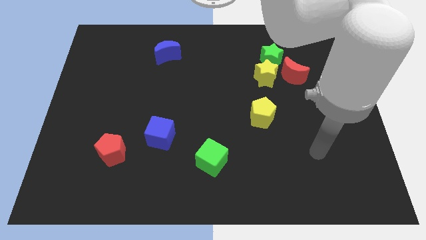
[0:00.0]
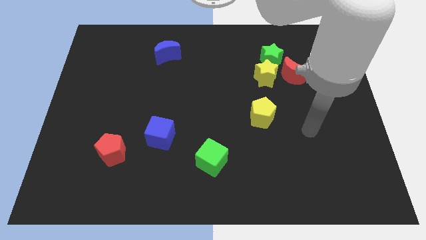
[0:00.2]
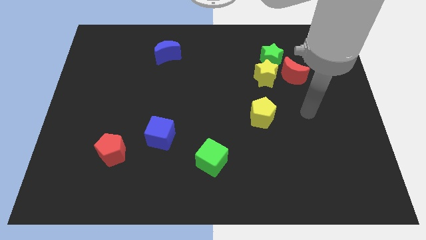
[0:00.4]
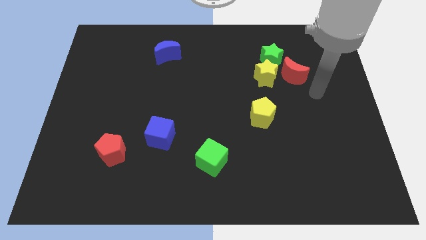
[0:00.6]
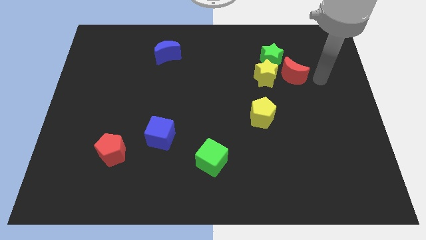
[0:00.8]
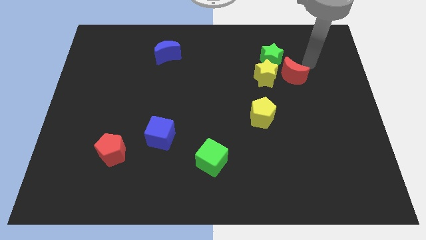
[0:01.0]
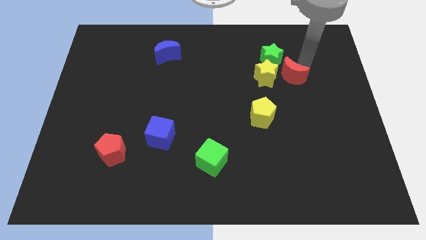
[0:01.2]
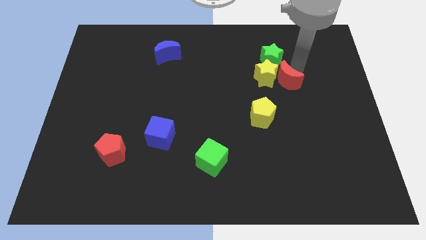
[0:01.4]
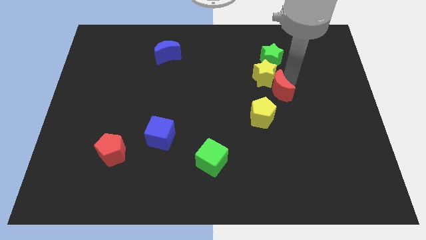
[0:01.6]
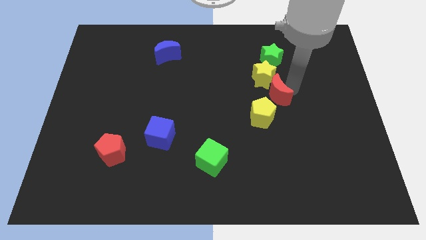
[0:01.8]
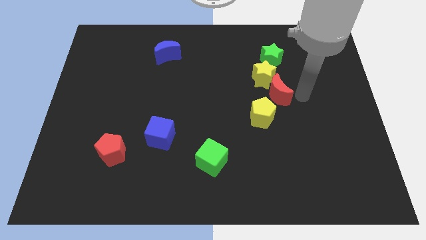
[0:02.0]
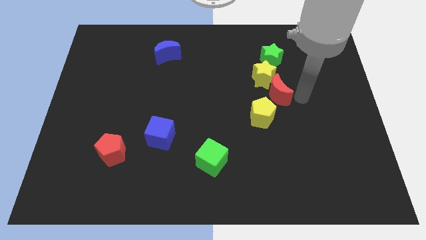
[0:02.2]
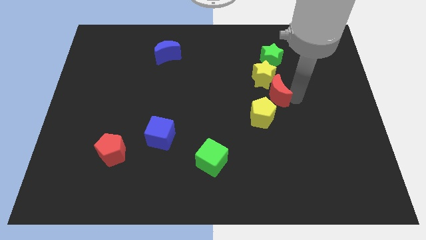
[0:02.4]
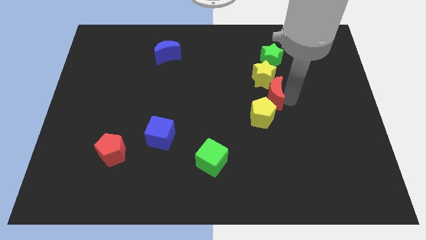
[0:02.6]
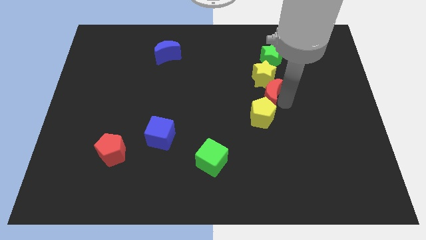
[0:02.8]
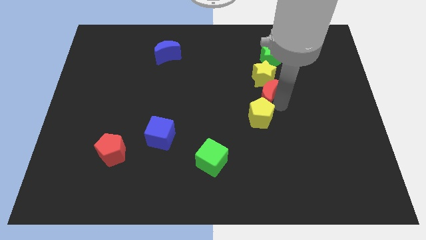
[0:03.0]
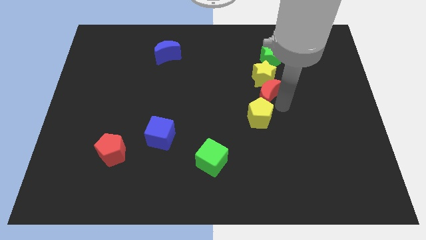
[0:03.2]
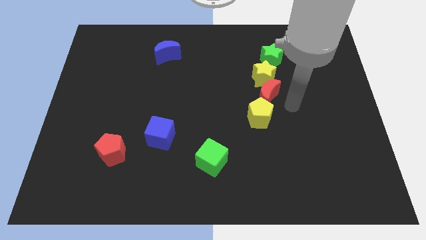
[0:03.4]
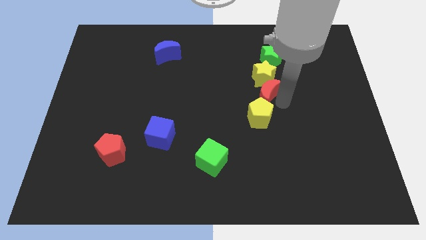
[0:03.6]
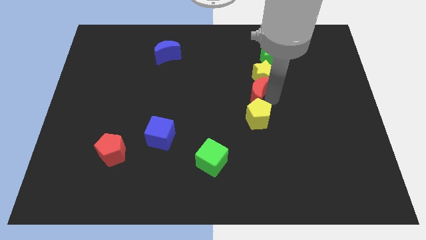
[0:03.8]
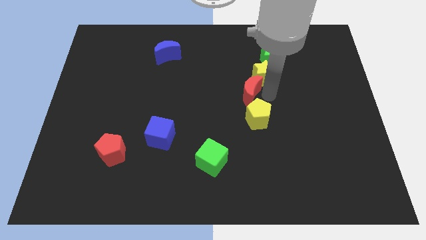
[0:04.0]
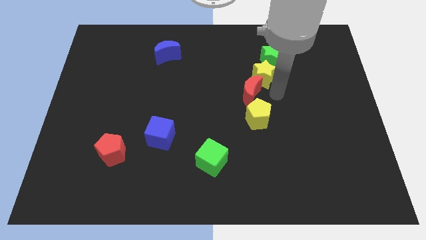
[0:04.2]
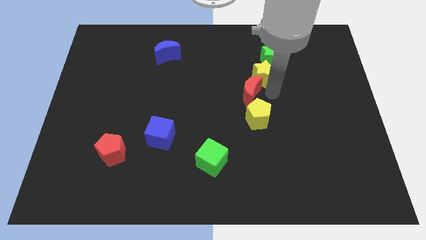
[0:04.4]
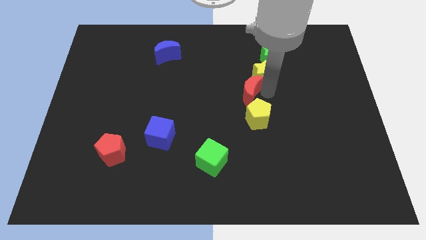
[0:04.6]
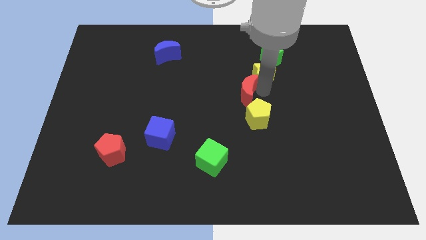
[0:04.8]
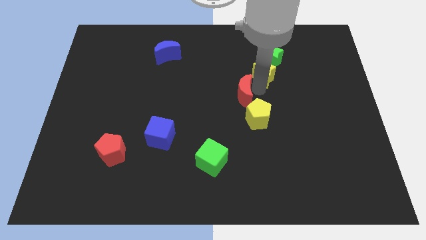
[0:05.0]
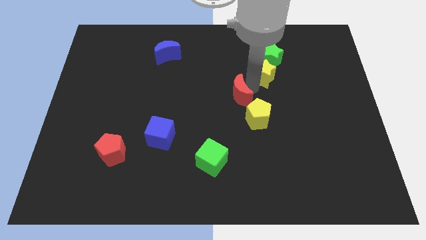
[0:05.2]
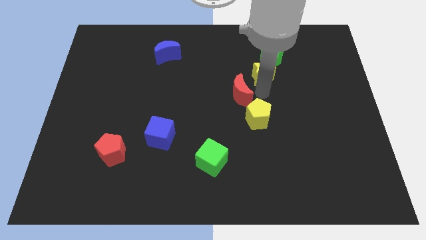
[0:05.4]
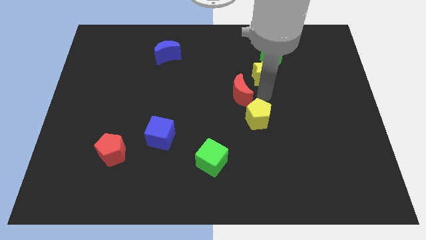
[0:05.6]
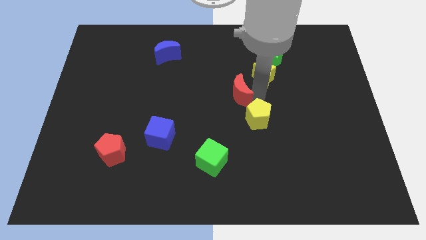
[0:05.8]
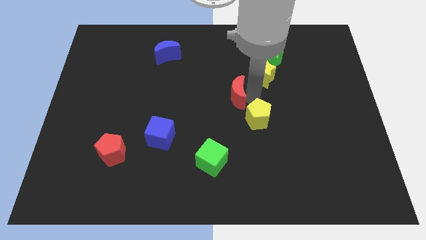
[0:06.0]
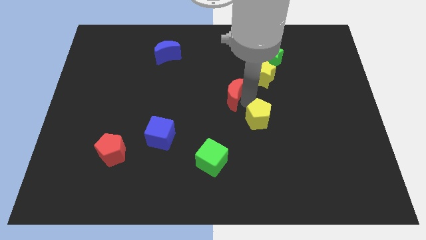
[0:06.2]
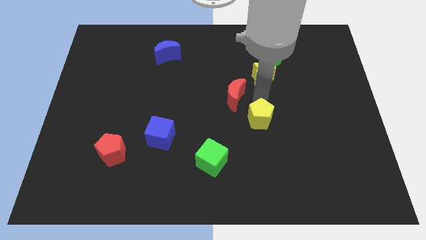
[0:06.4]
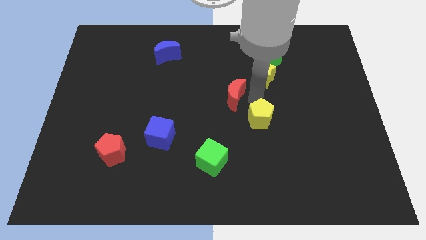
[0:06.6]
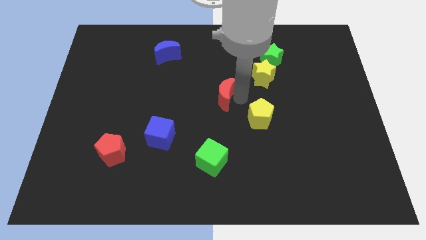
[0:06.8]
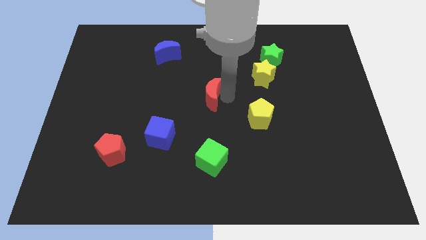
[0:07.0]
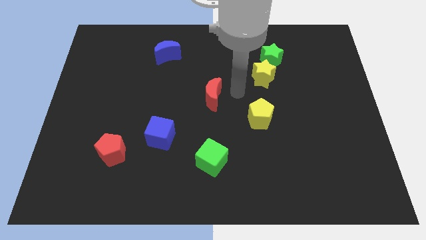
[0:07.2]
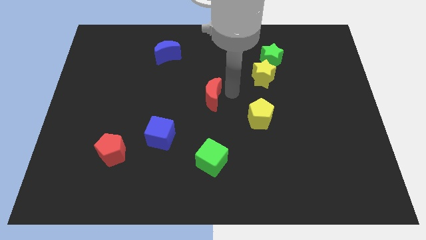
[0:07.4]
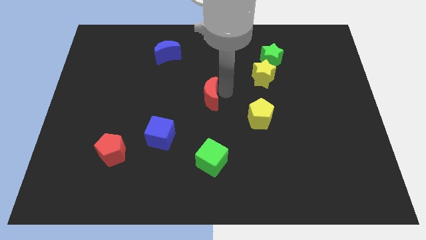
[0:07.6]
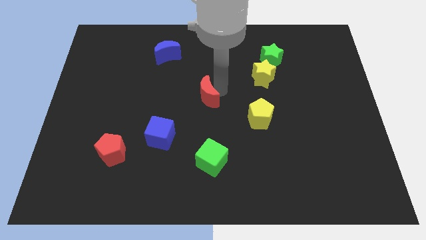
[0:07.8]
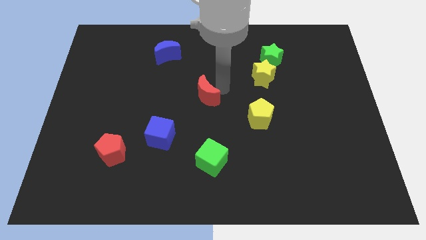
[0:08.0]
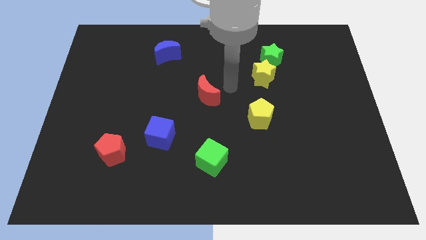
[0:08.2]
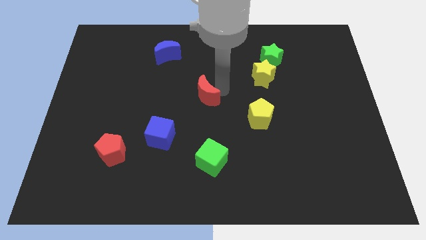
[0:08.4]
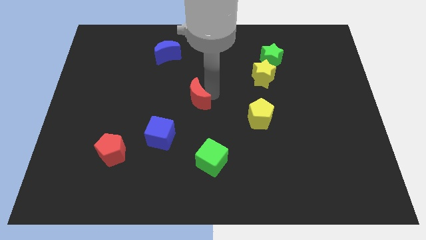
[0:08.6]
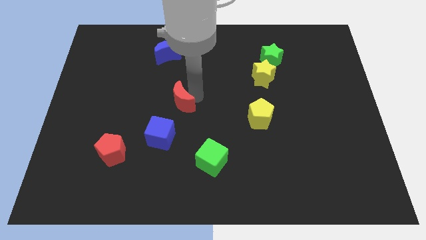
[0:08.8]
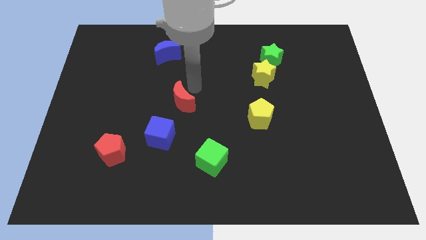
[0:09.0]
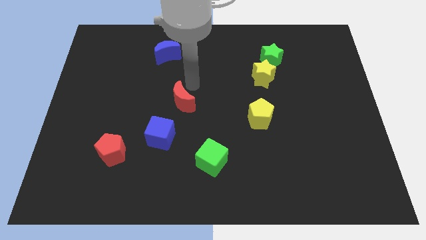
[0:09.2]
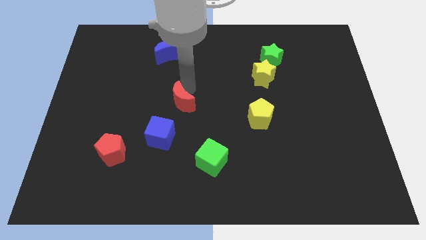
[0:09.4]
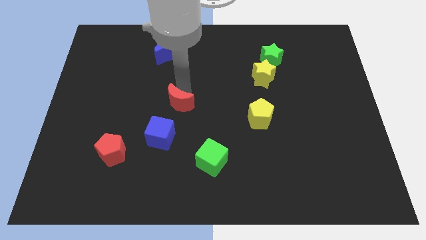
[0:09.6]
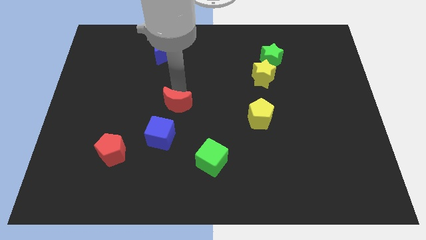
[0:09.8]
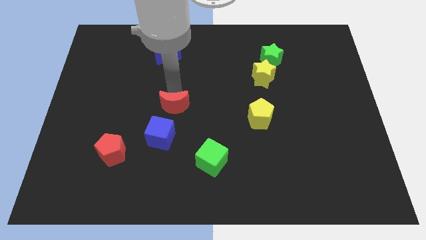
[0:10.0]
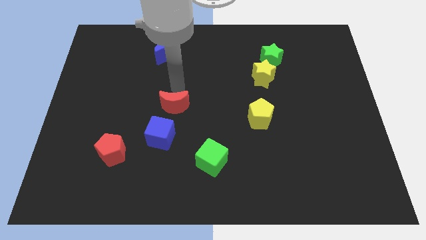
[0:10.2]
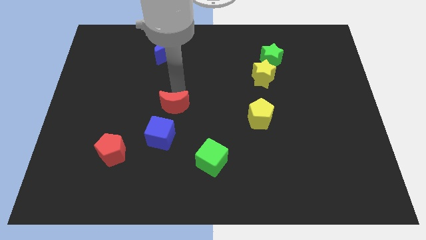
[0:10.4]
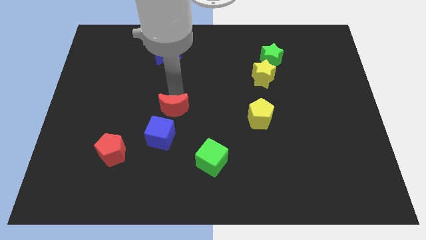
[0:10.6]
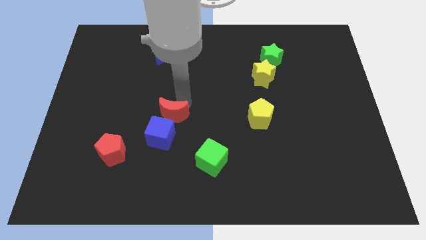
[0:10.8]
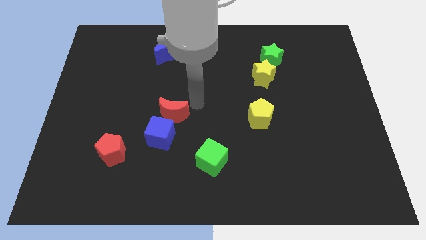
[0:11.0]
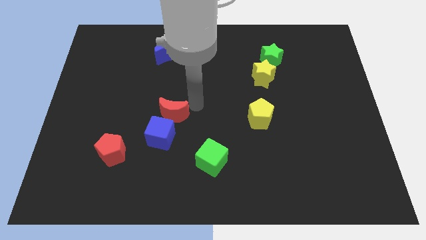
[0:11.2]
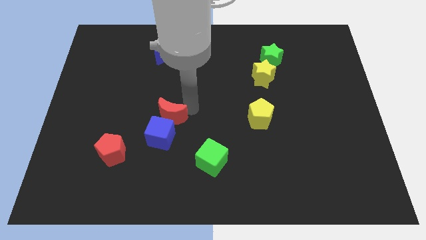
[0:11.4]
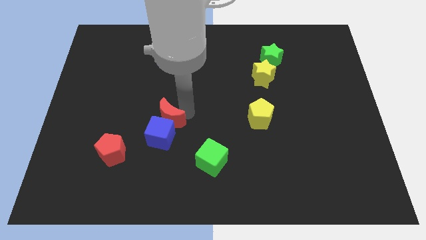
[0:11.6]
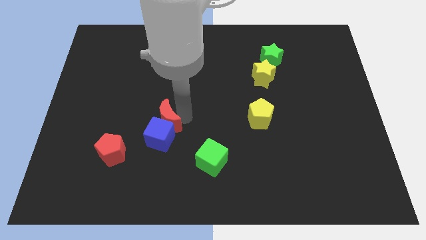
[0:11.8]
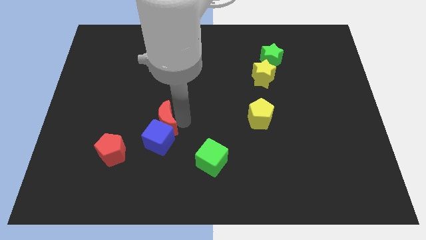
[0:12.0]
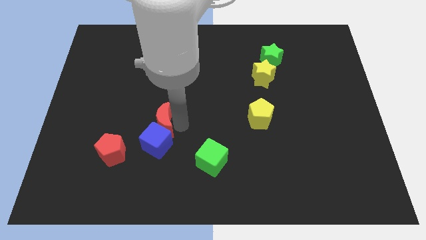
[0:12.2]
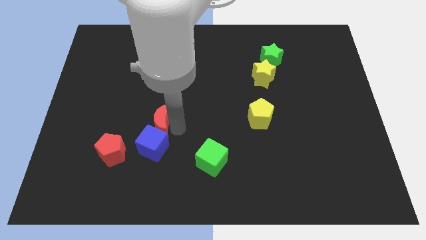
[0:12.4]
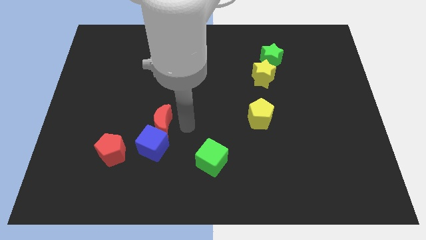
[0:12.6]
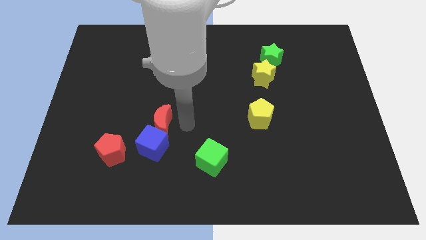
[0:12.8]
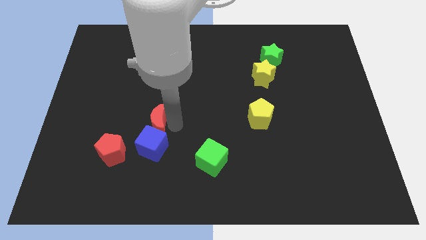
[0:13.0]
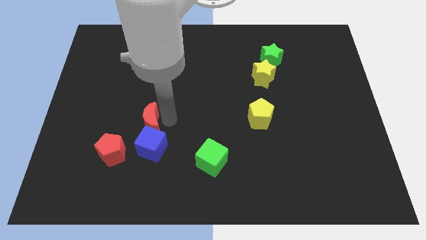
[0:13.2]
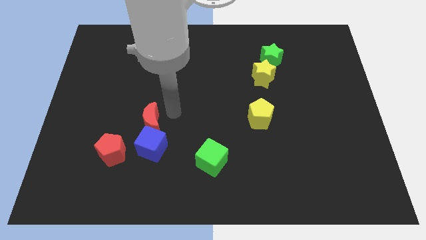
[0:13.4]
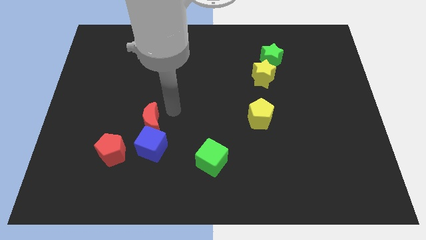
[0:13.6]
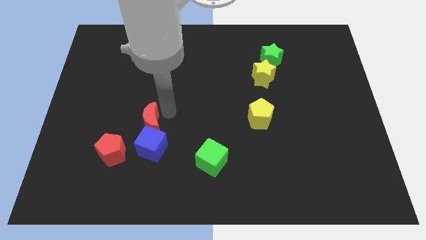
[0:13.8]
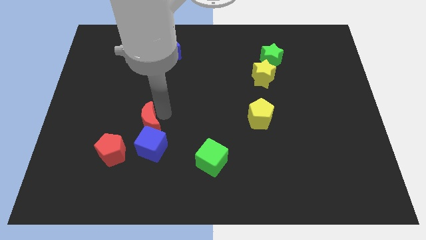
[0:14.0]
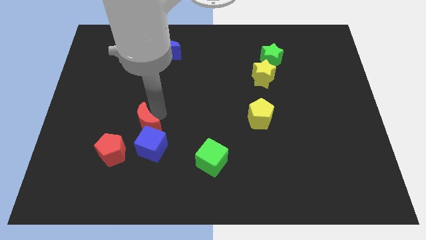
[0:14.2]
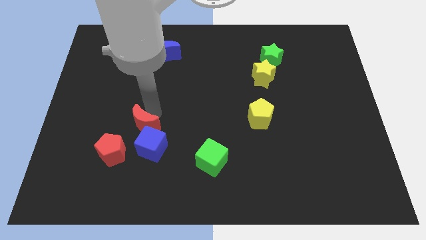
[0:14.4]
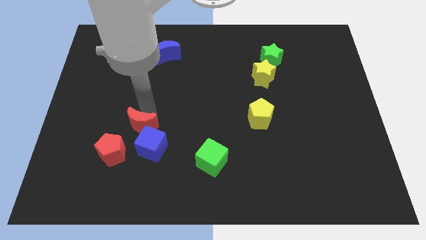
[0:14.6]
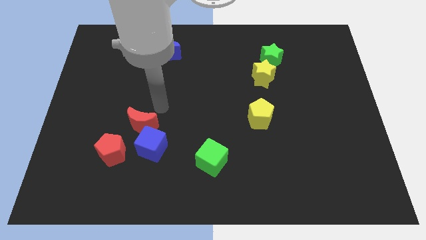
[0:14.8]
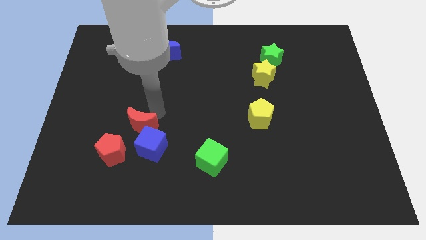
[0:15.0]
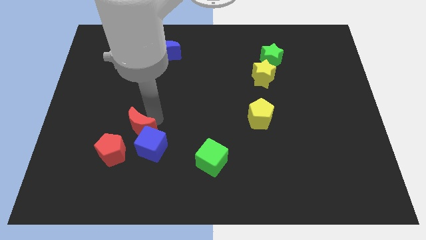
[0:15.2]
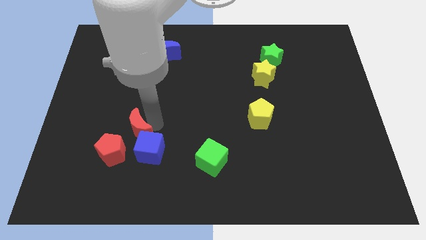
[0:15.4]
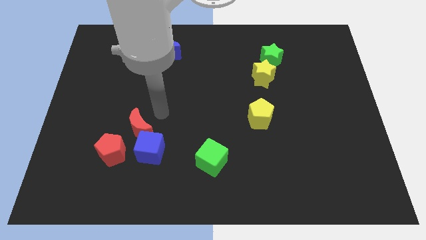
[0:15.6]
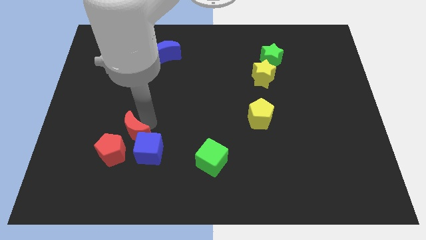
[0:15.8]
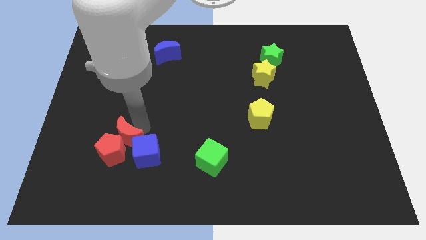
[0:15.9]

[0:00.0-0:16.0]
slide the red moon close to the red pentagon
